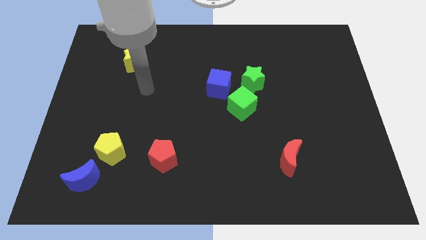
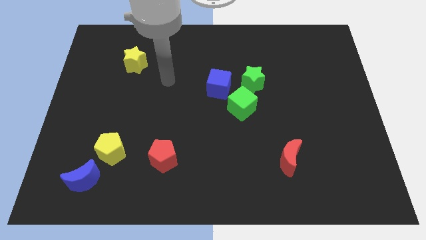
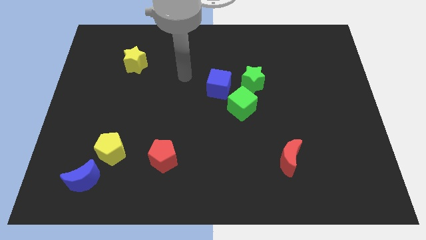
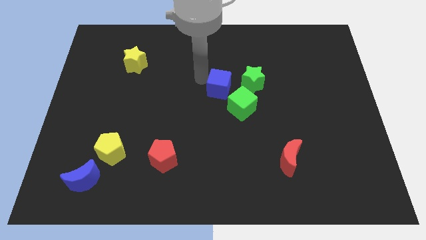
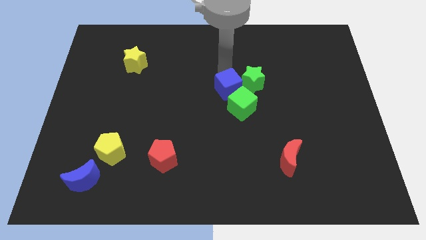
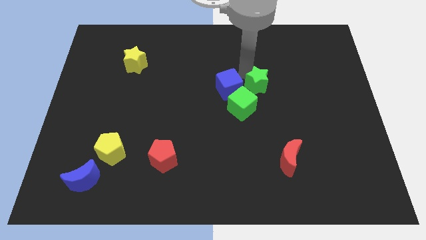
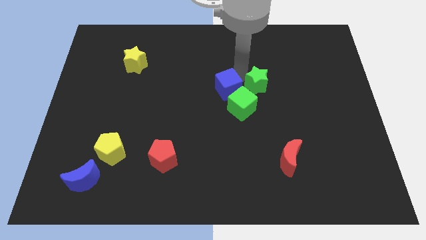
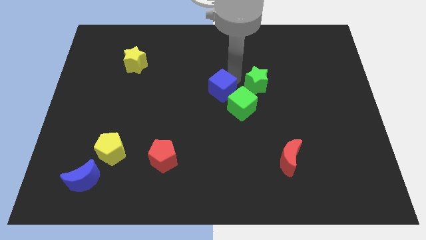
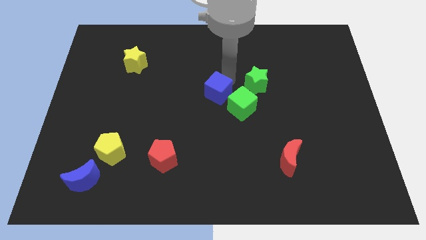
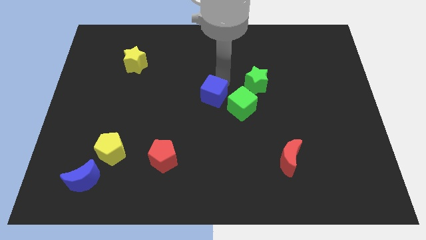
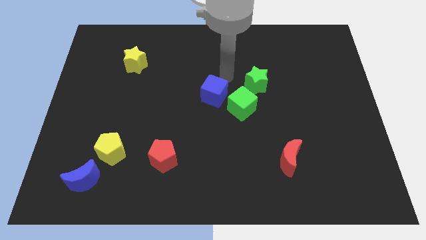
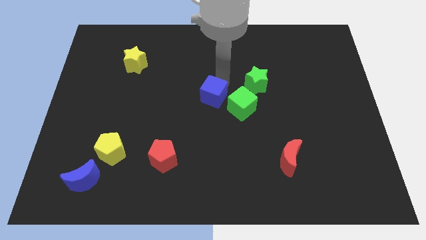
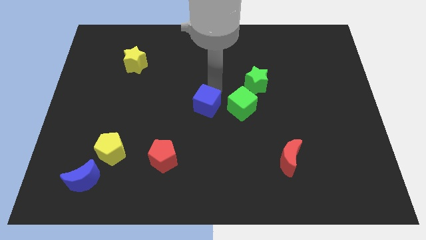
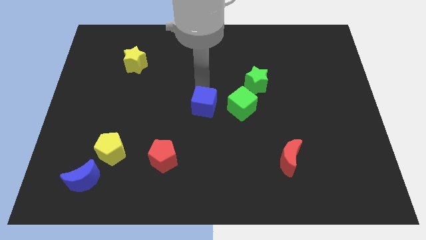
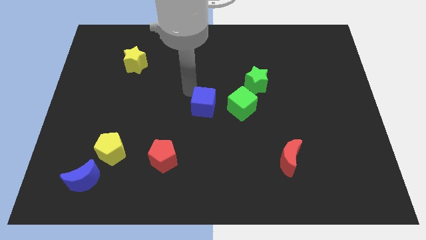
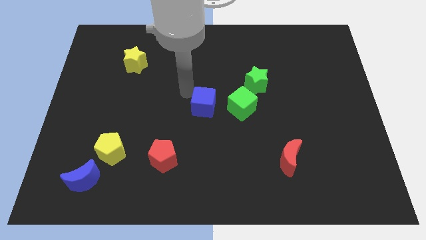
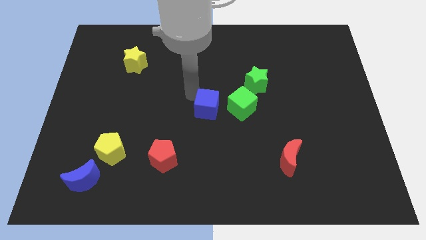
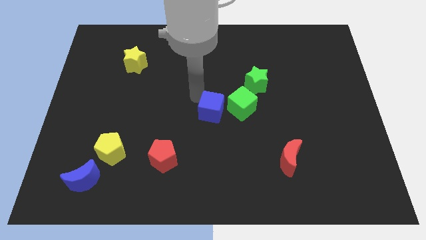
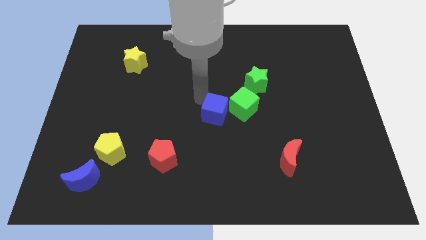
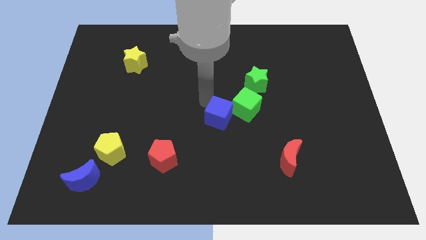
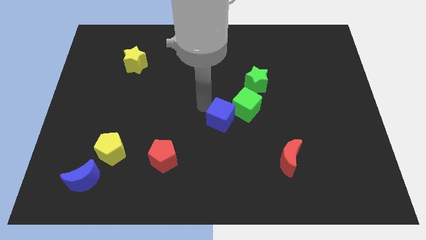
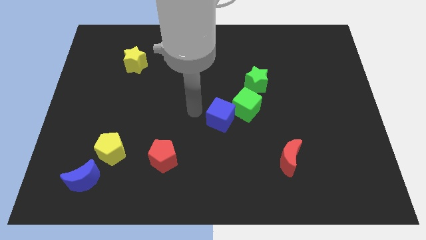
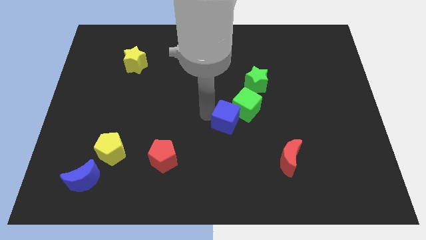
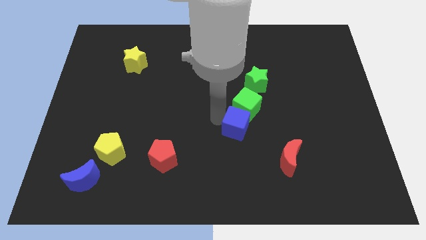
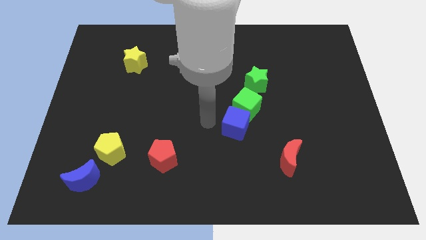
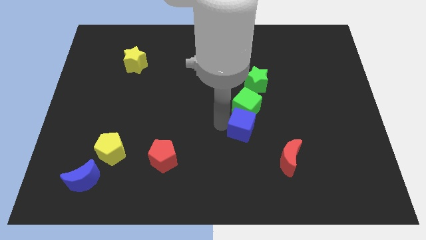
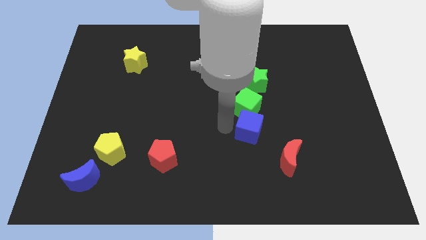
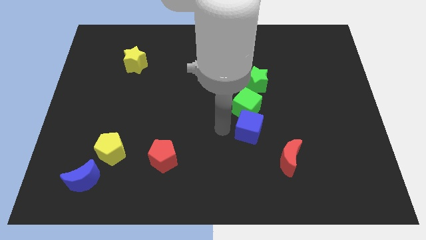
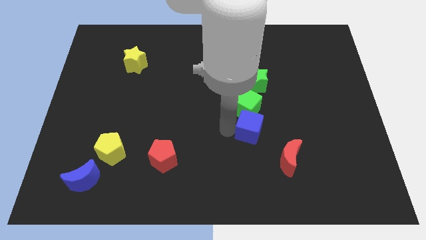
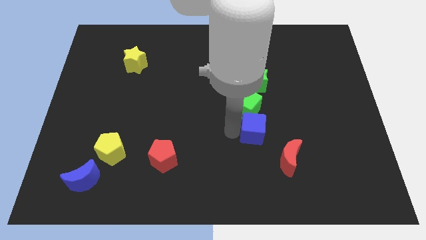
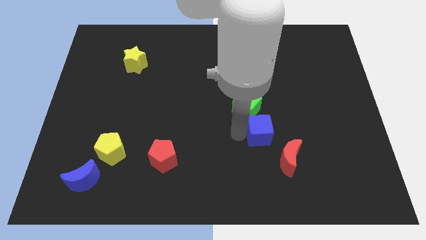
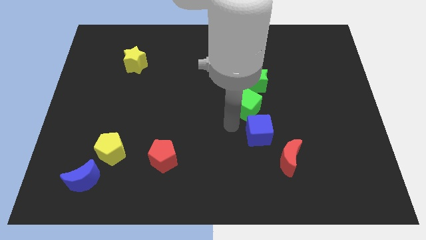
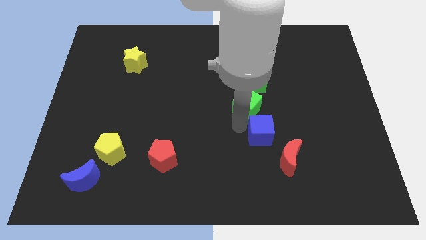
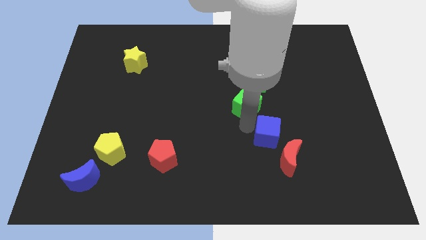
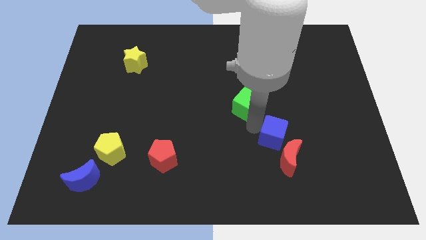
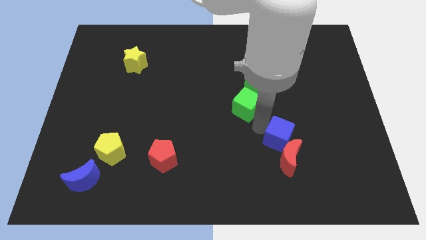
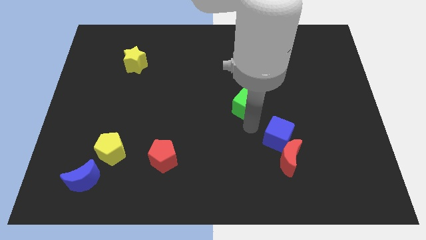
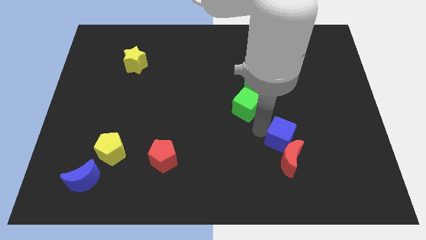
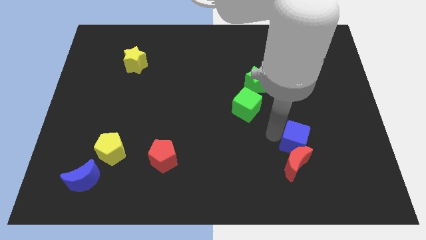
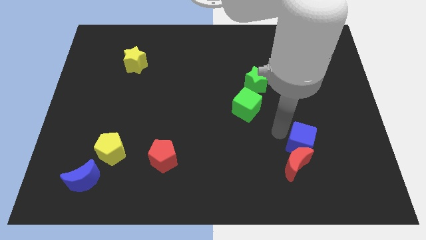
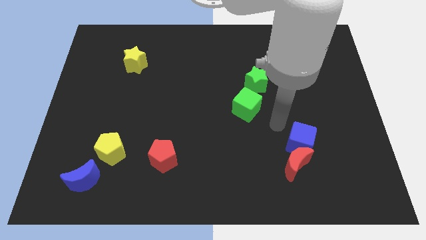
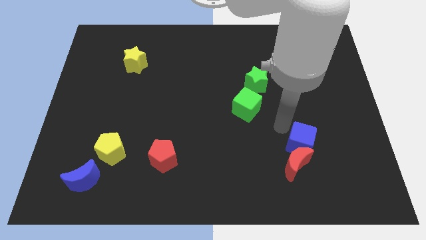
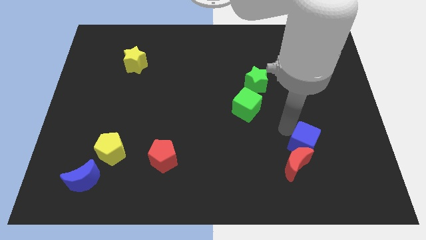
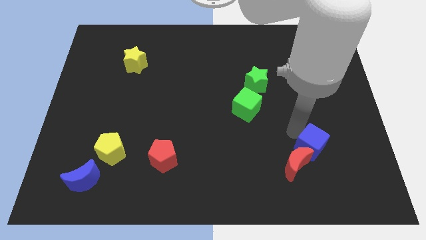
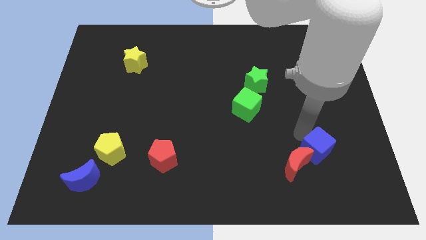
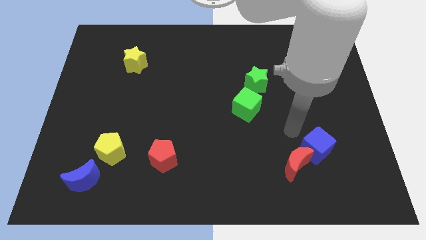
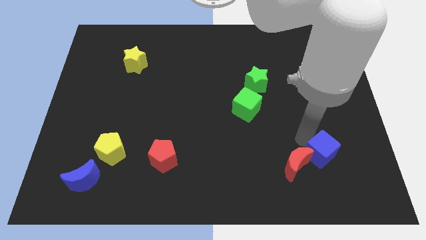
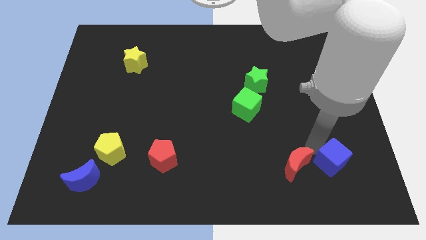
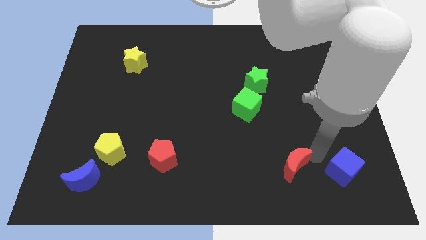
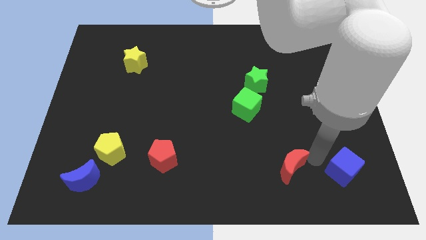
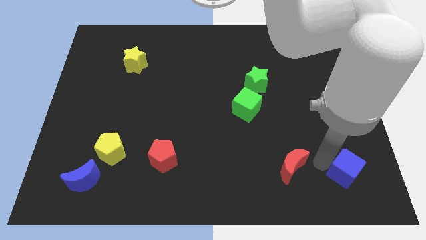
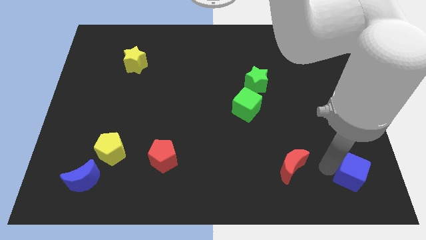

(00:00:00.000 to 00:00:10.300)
push the blue cube to the bottom right corner

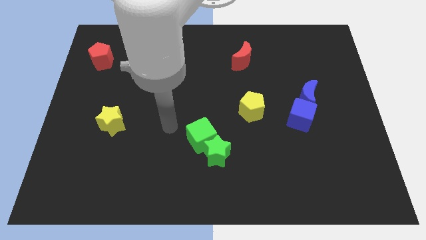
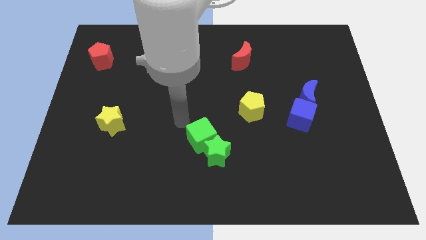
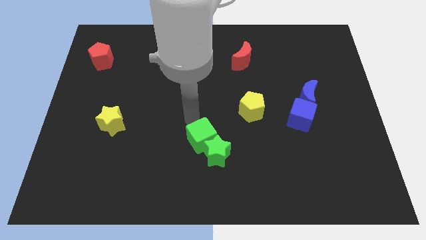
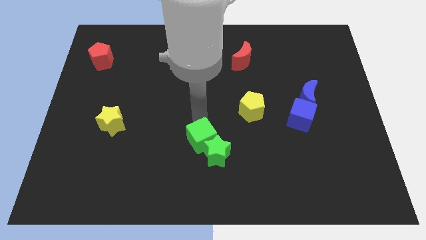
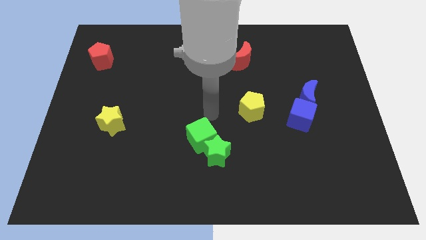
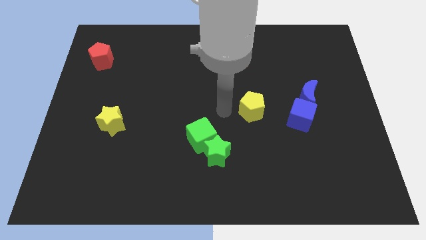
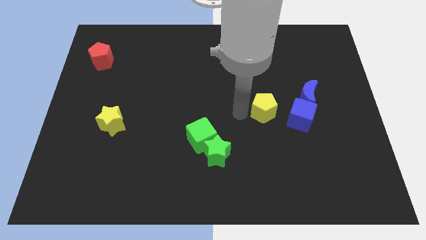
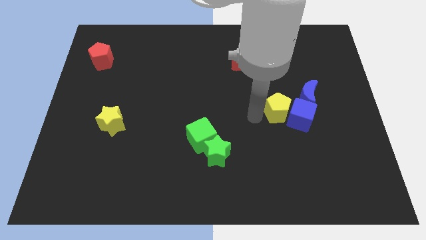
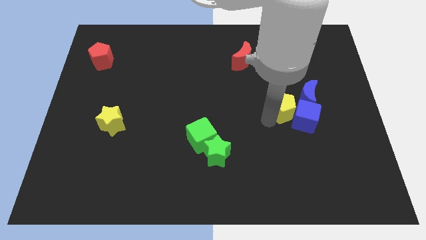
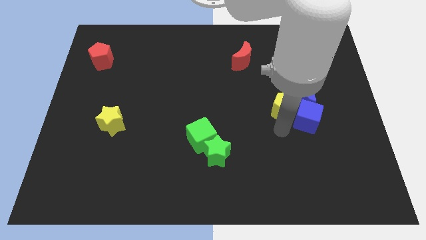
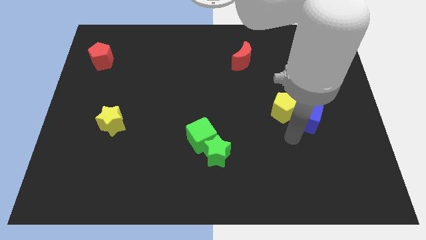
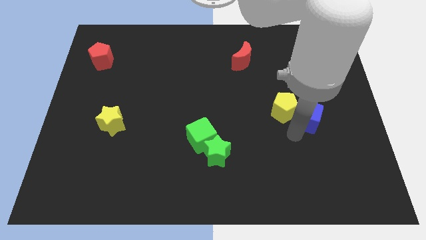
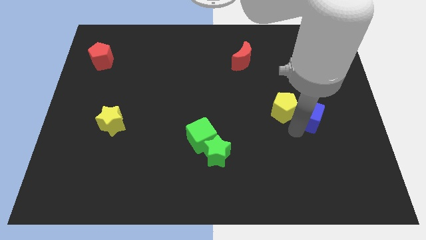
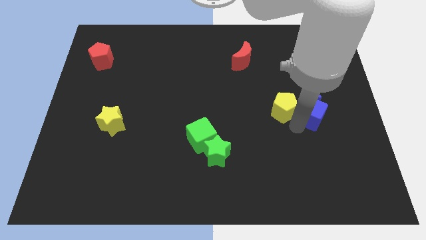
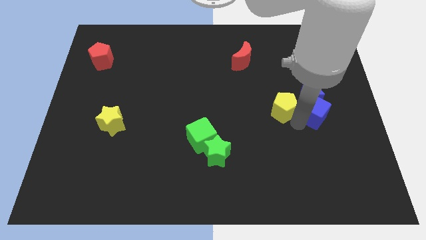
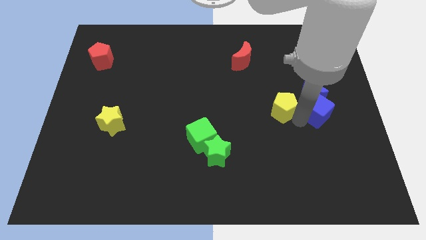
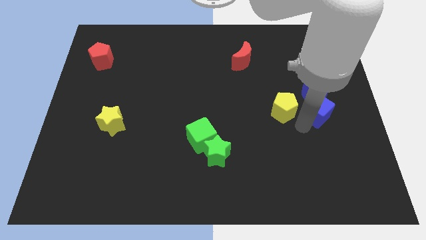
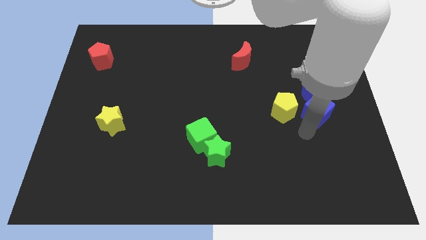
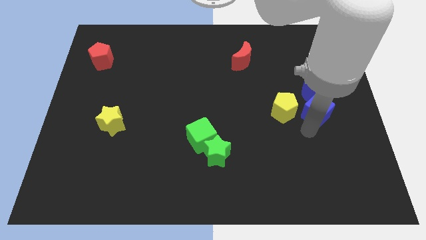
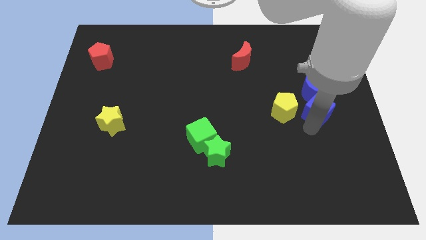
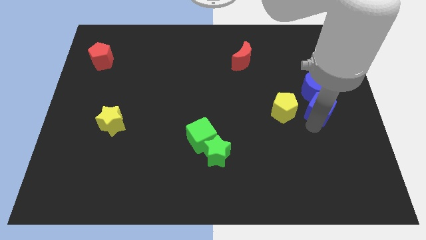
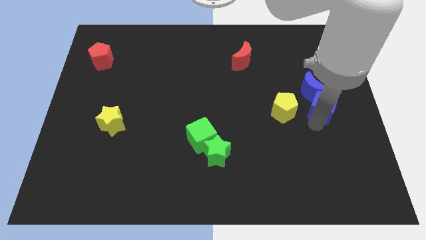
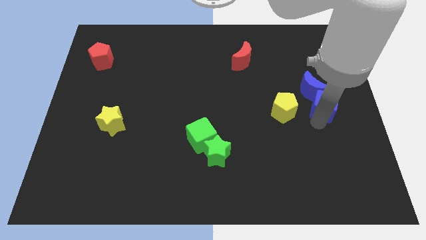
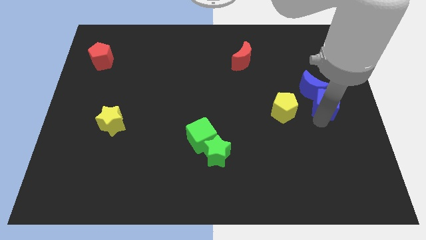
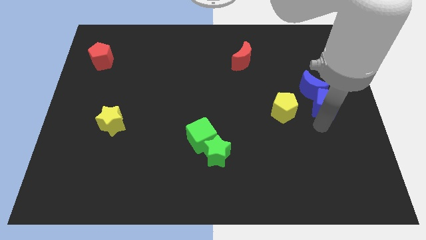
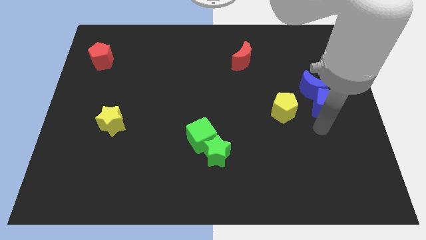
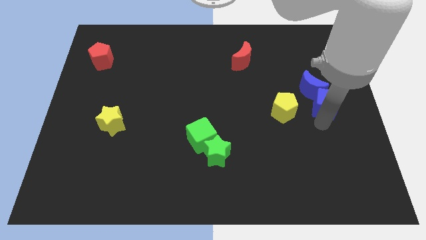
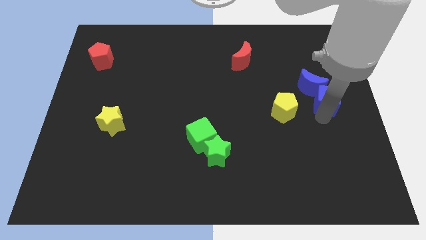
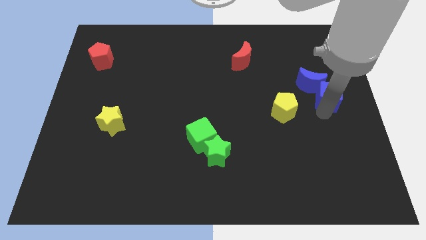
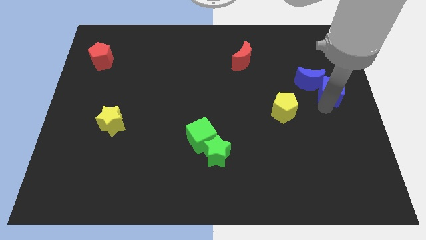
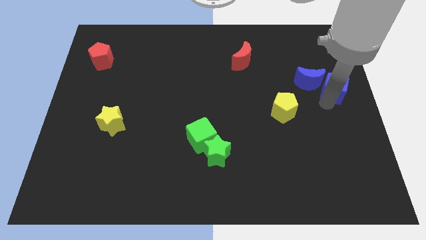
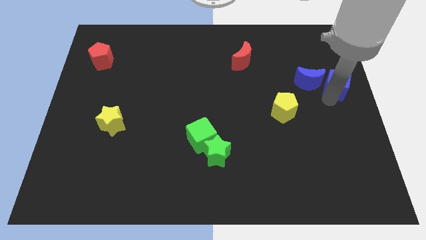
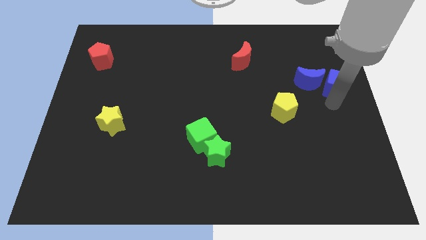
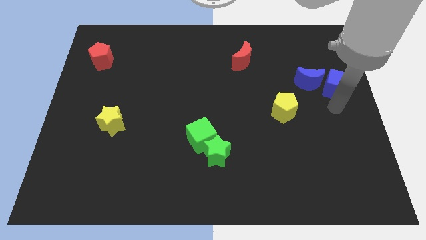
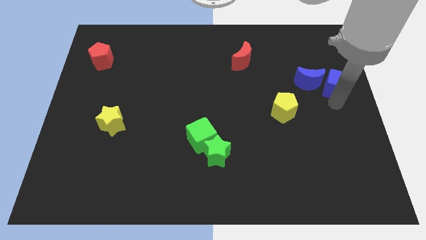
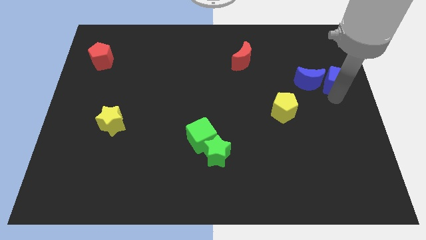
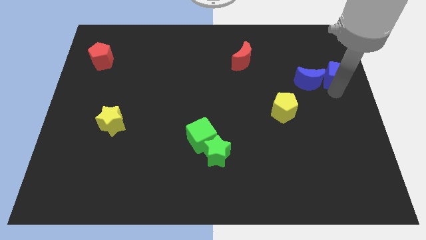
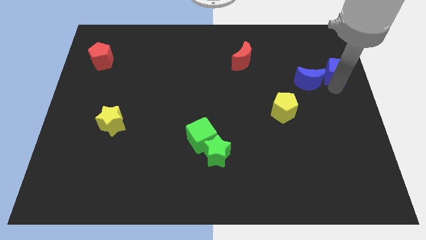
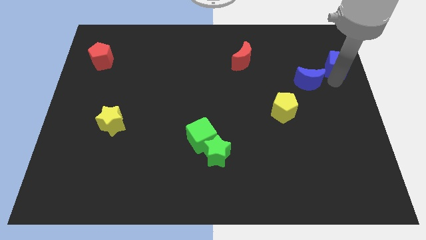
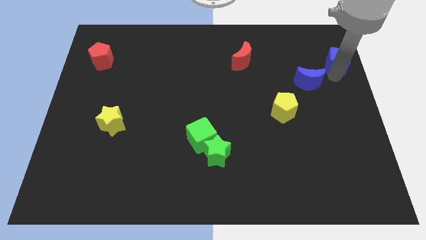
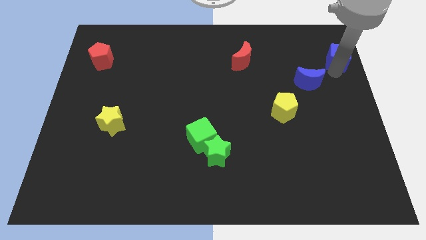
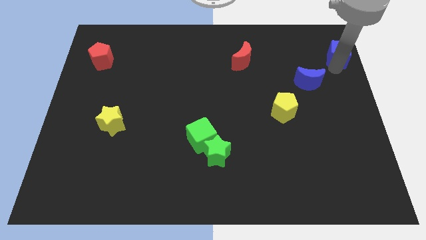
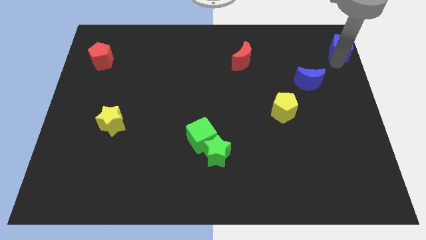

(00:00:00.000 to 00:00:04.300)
put the blue cube to the top right corner
